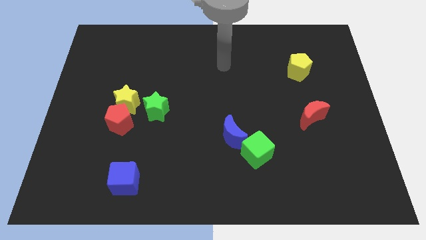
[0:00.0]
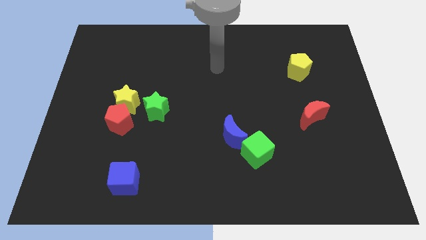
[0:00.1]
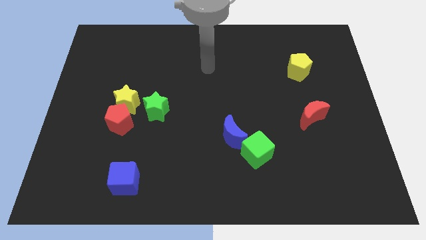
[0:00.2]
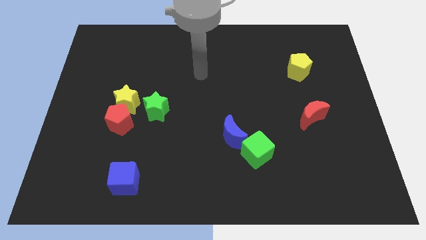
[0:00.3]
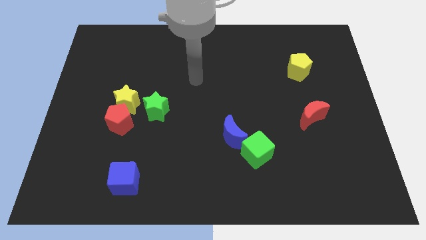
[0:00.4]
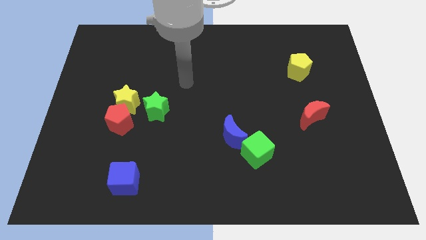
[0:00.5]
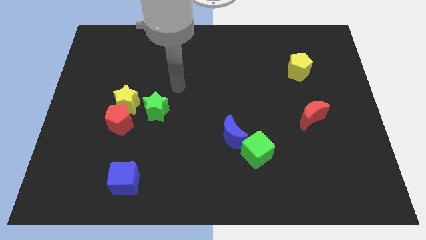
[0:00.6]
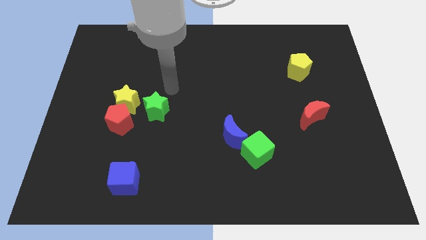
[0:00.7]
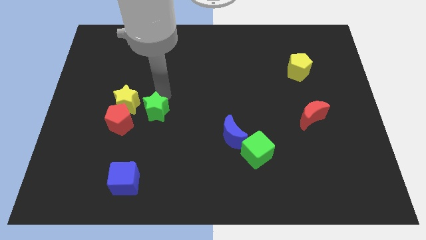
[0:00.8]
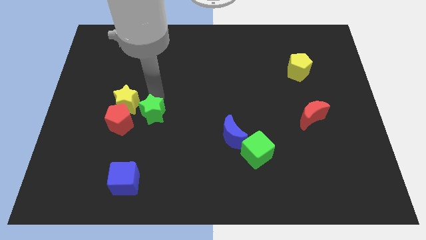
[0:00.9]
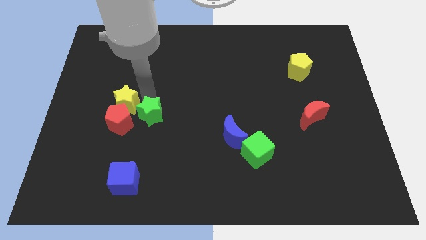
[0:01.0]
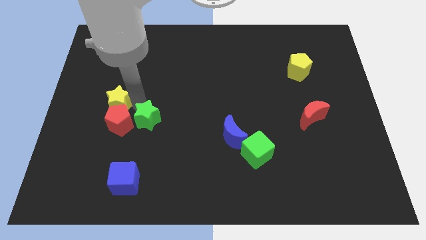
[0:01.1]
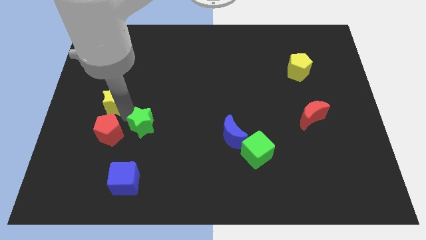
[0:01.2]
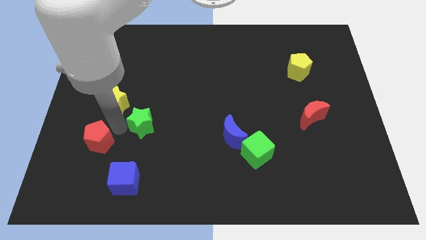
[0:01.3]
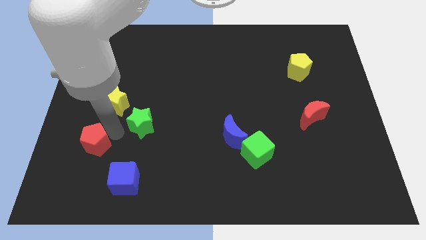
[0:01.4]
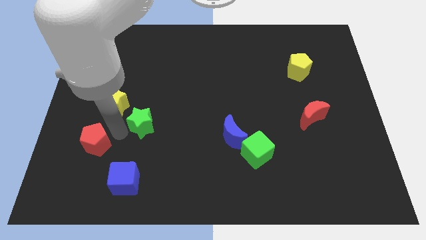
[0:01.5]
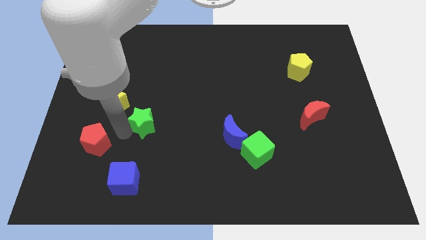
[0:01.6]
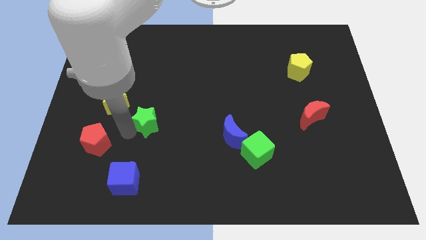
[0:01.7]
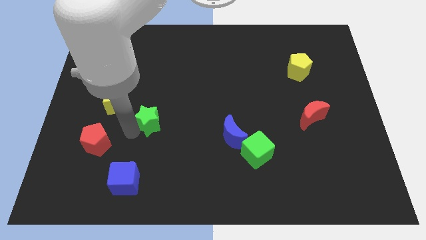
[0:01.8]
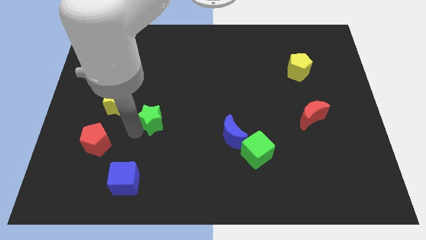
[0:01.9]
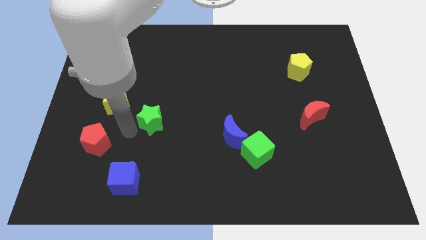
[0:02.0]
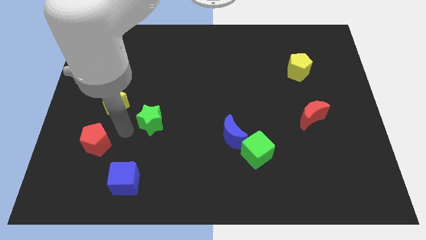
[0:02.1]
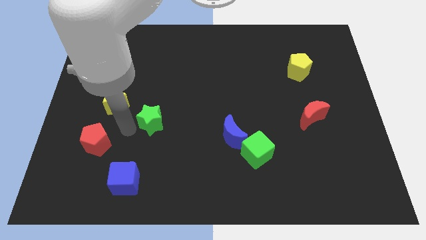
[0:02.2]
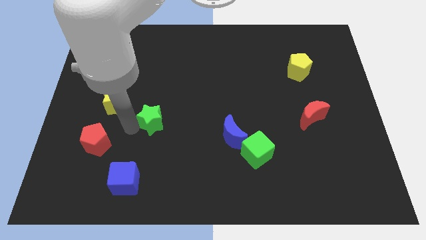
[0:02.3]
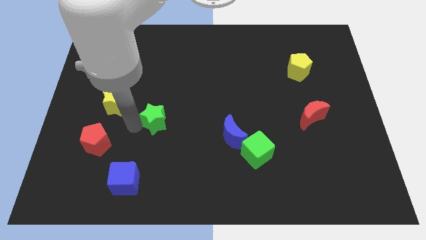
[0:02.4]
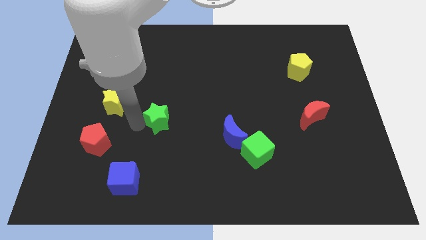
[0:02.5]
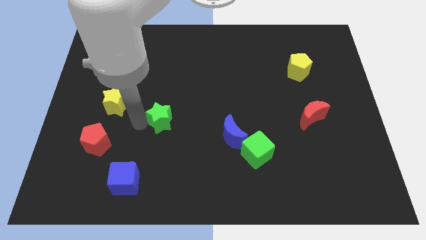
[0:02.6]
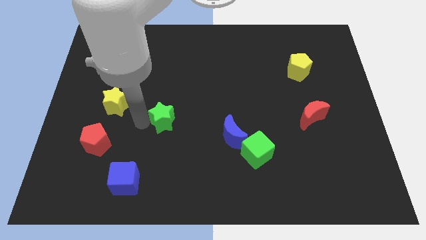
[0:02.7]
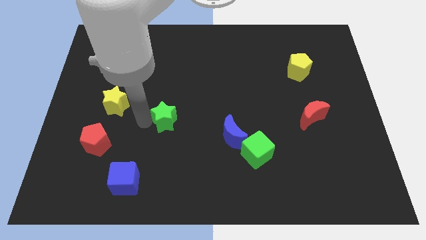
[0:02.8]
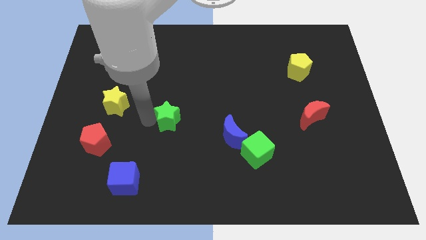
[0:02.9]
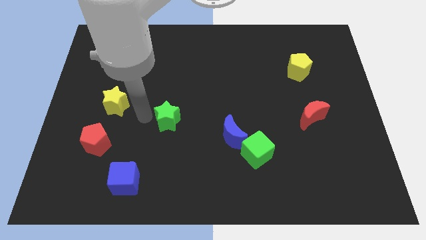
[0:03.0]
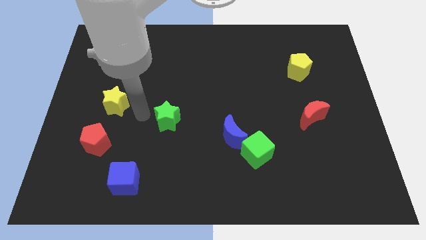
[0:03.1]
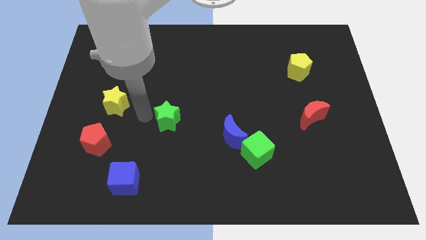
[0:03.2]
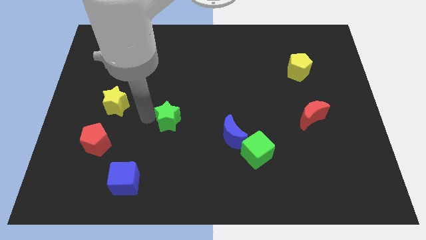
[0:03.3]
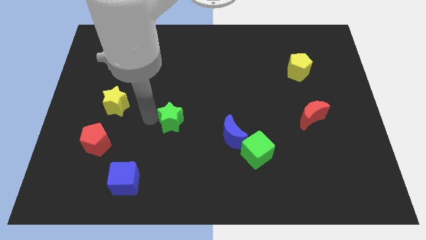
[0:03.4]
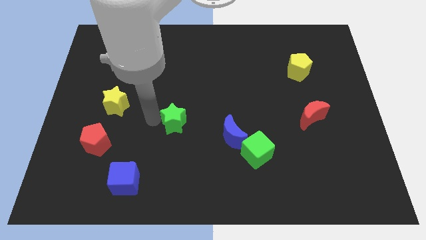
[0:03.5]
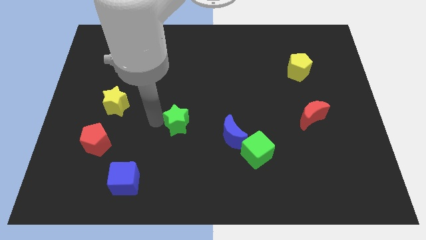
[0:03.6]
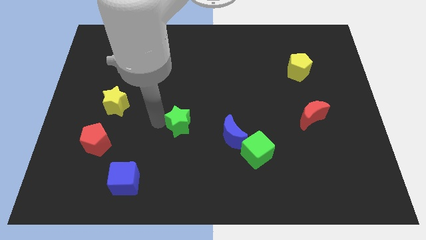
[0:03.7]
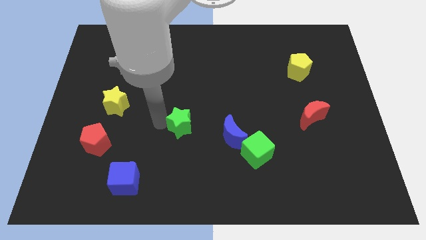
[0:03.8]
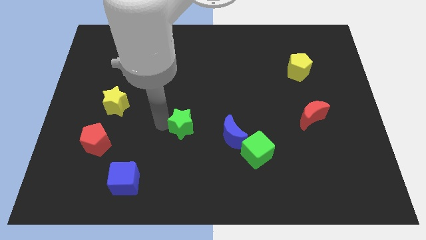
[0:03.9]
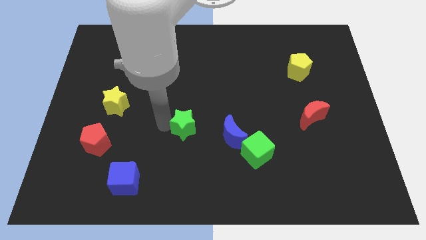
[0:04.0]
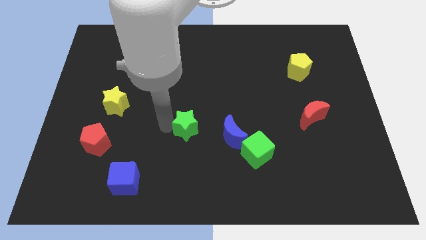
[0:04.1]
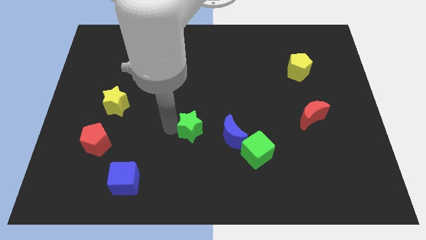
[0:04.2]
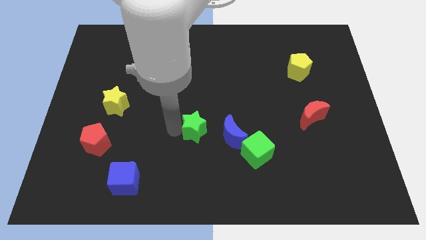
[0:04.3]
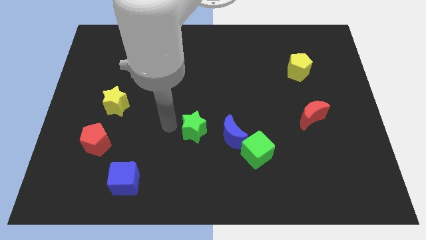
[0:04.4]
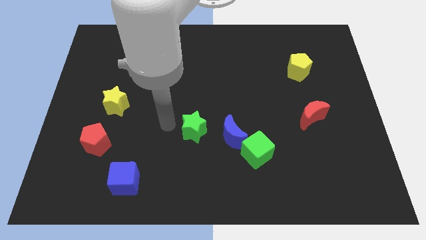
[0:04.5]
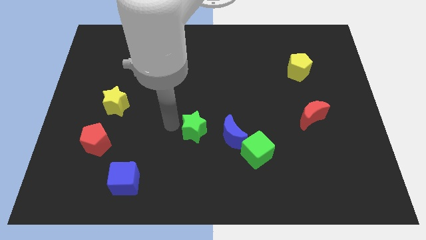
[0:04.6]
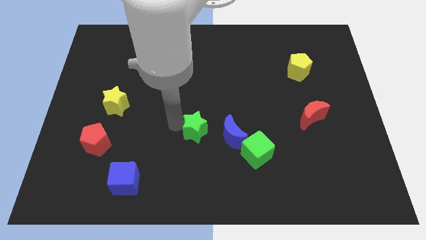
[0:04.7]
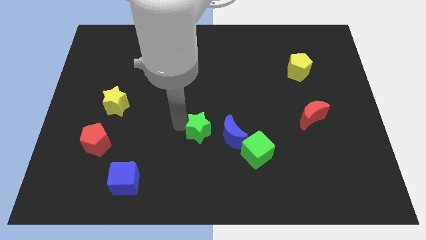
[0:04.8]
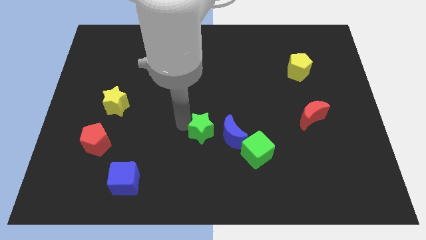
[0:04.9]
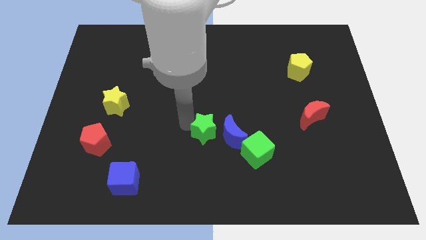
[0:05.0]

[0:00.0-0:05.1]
slide the green star next to the blue moon

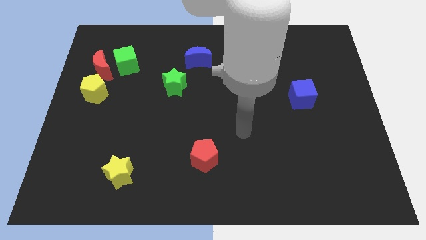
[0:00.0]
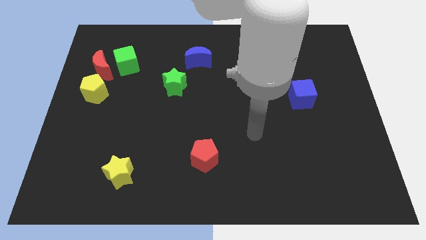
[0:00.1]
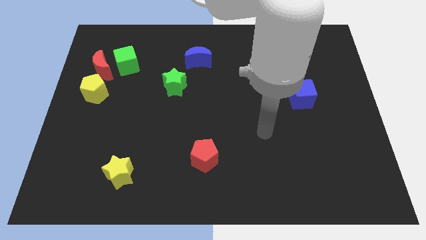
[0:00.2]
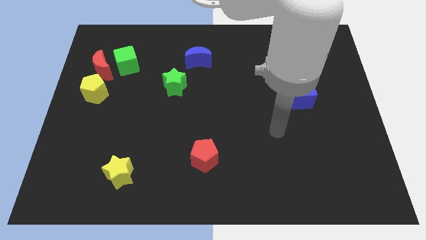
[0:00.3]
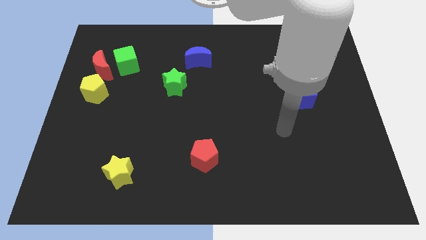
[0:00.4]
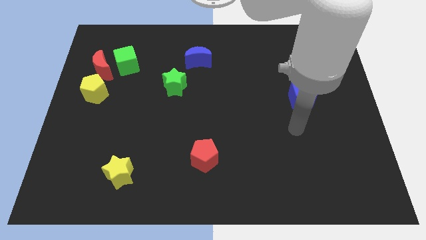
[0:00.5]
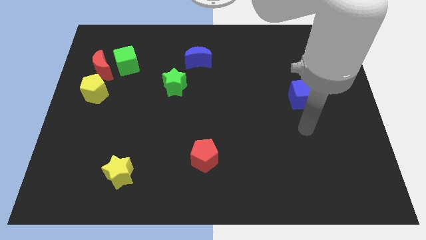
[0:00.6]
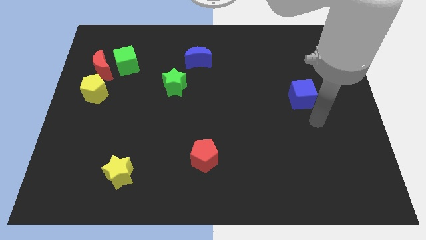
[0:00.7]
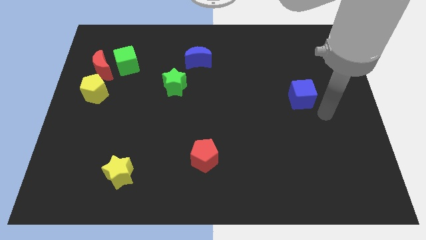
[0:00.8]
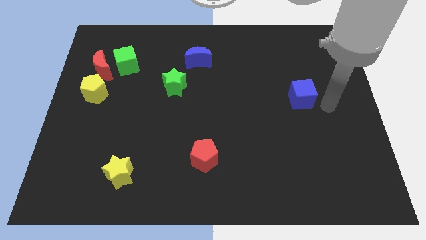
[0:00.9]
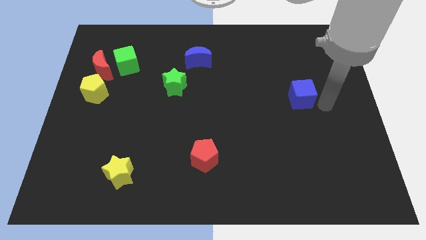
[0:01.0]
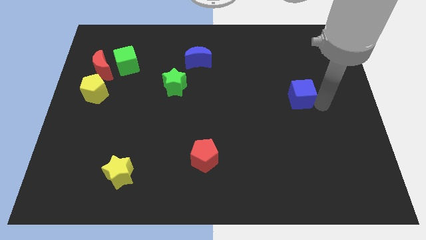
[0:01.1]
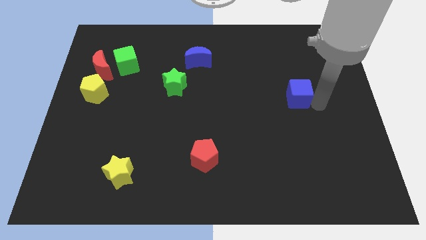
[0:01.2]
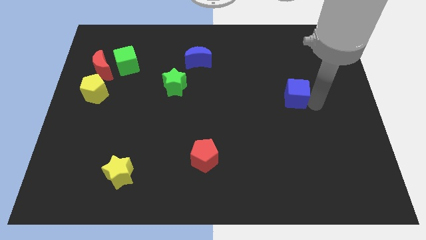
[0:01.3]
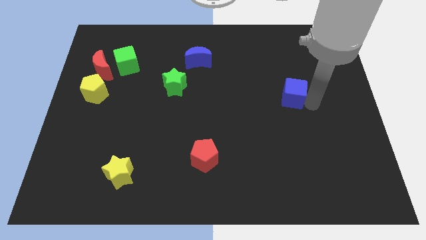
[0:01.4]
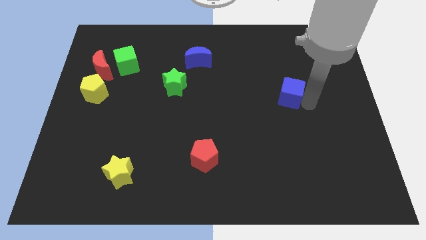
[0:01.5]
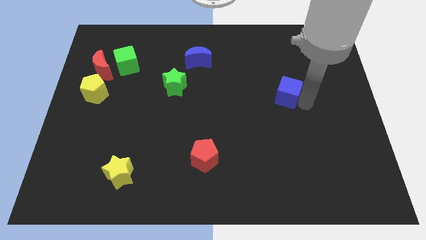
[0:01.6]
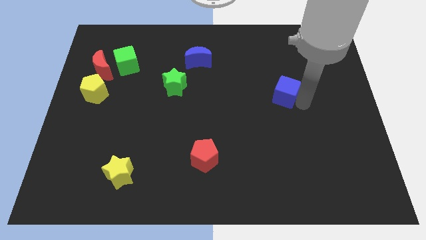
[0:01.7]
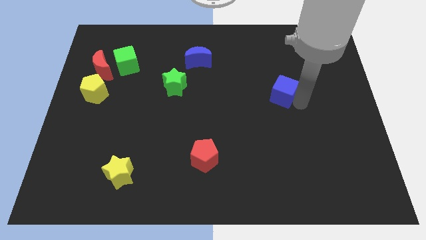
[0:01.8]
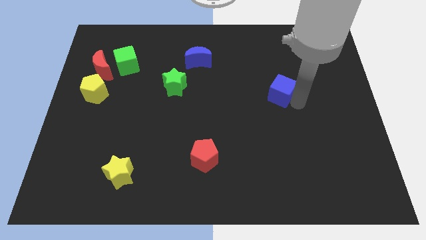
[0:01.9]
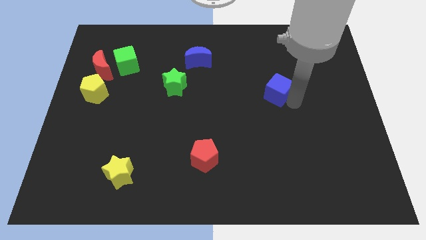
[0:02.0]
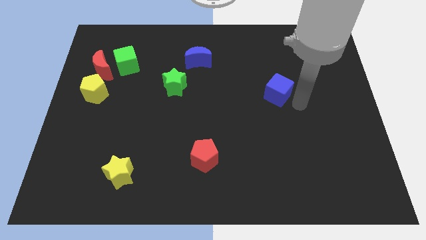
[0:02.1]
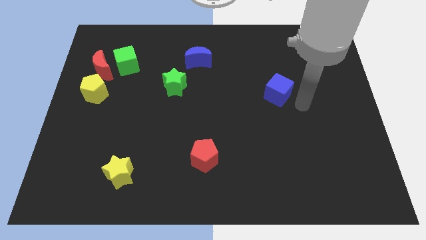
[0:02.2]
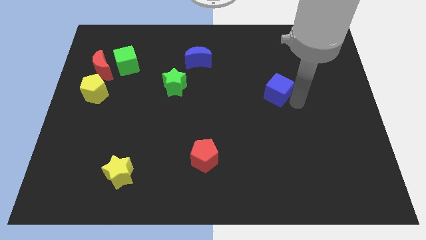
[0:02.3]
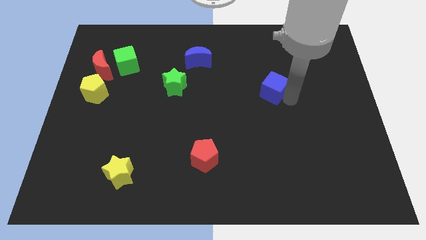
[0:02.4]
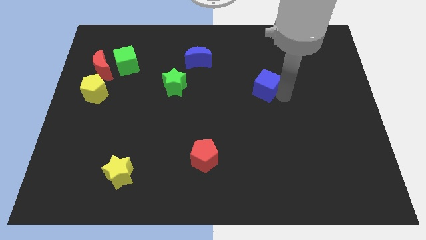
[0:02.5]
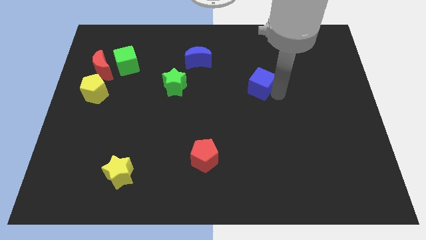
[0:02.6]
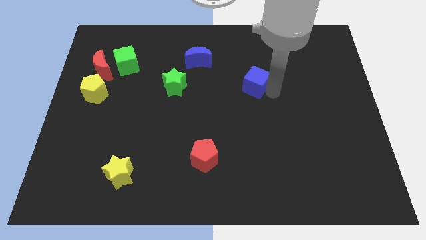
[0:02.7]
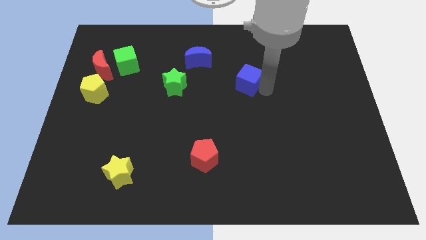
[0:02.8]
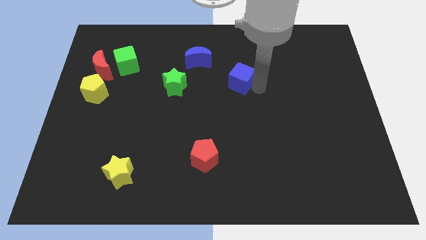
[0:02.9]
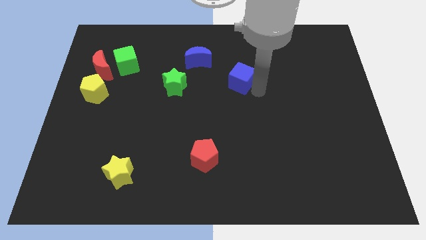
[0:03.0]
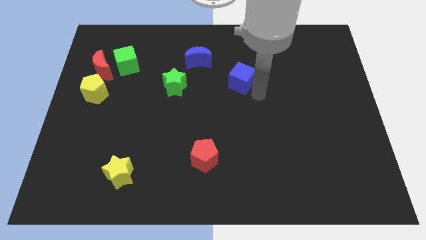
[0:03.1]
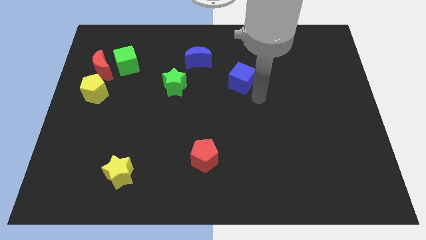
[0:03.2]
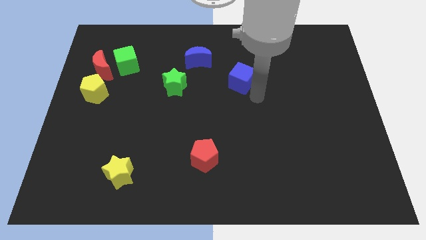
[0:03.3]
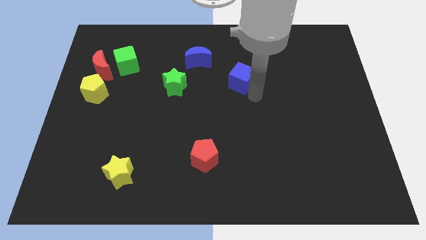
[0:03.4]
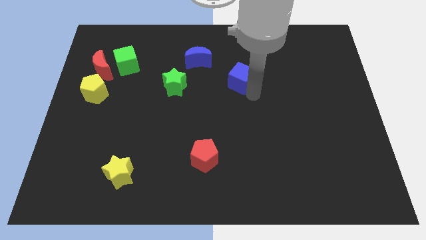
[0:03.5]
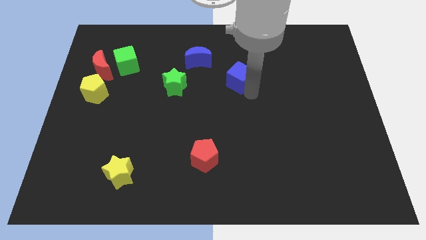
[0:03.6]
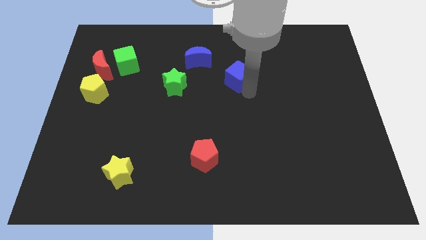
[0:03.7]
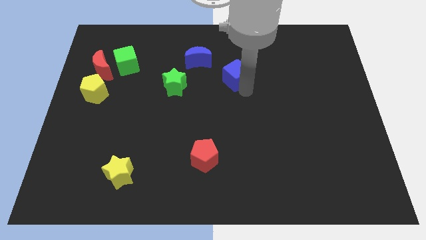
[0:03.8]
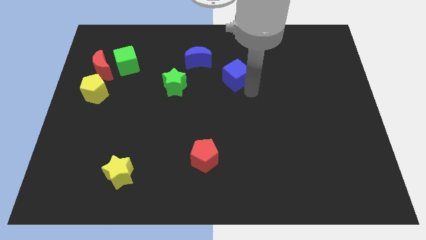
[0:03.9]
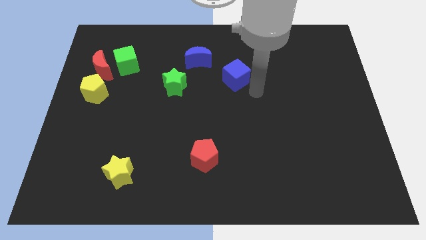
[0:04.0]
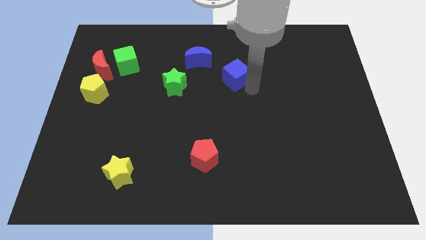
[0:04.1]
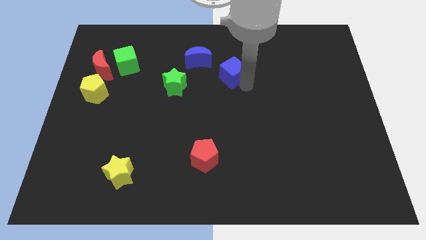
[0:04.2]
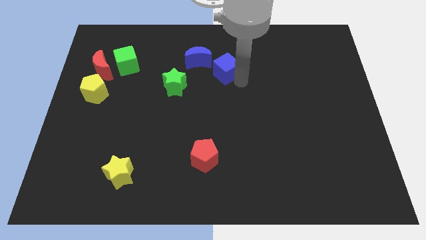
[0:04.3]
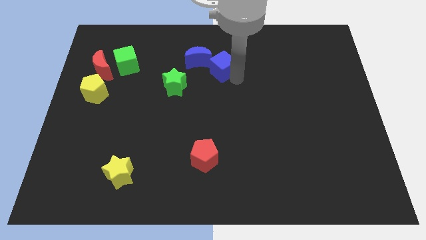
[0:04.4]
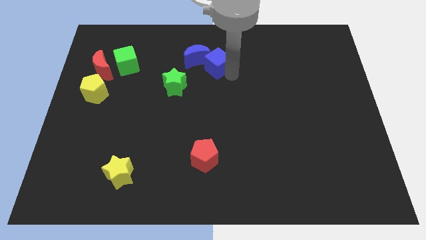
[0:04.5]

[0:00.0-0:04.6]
put the blue cube next to the blue moon
